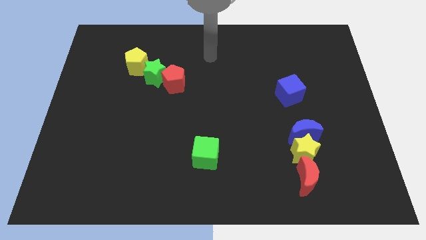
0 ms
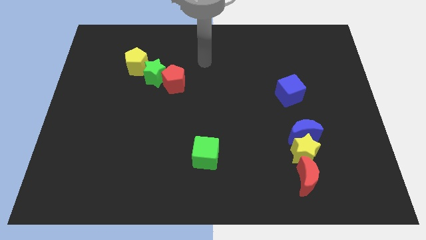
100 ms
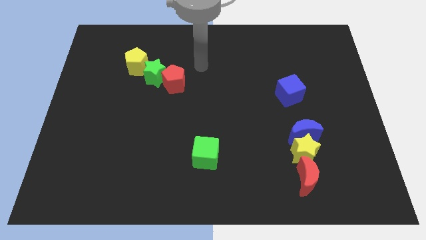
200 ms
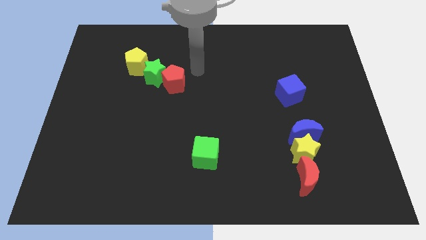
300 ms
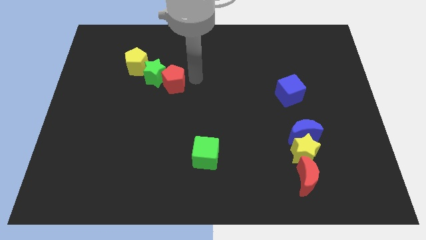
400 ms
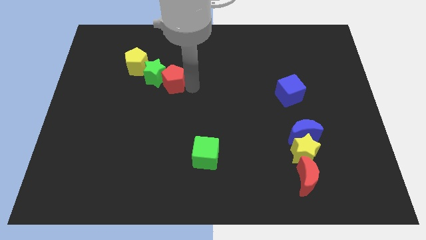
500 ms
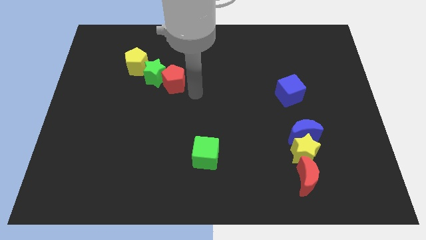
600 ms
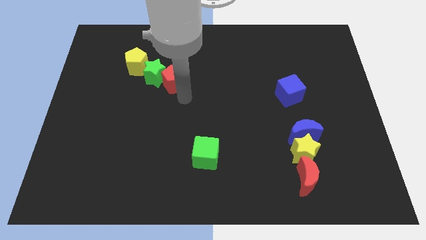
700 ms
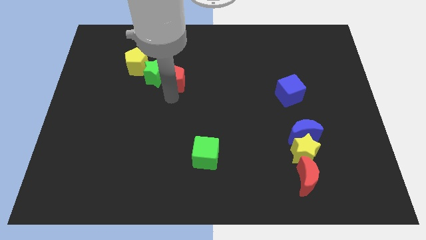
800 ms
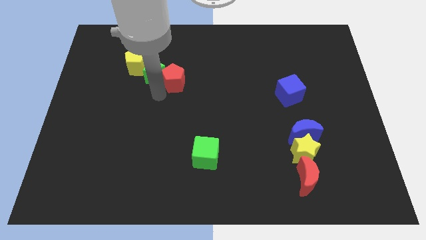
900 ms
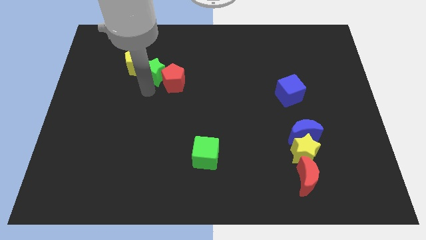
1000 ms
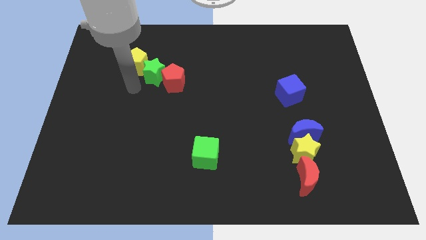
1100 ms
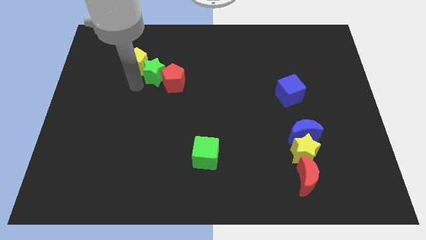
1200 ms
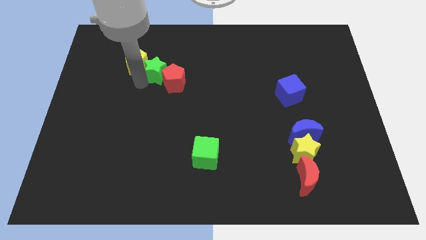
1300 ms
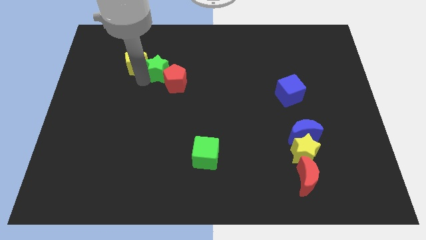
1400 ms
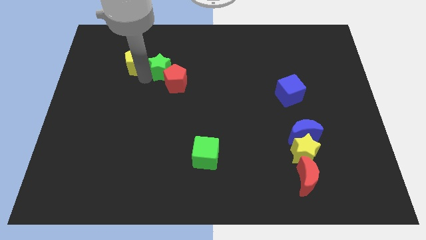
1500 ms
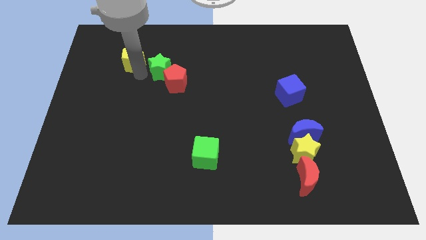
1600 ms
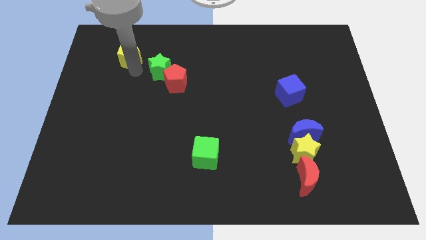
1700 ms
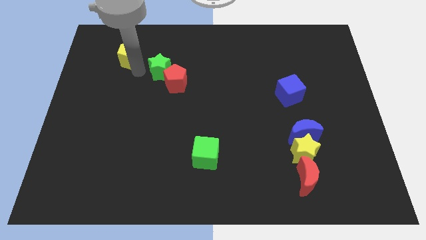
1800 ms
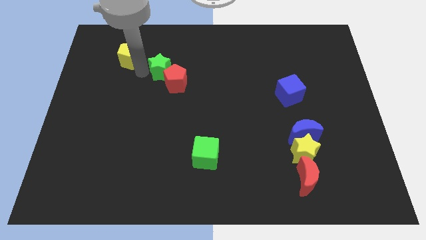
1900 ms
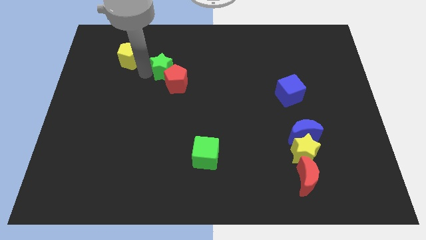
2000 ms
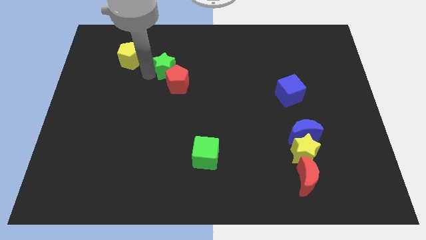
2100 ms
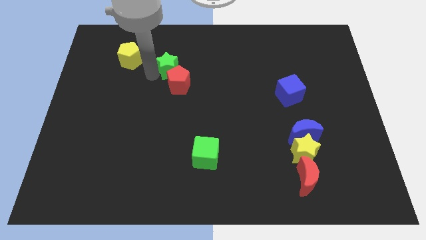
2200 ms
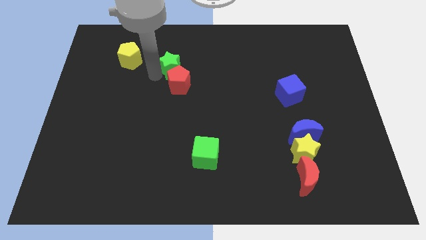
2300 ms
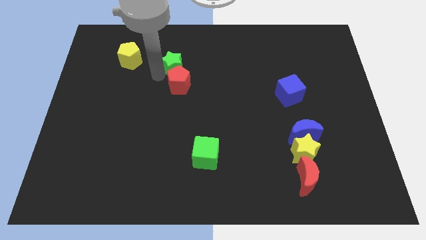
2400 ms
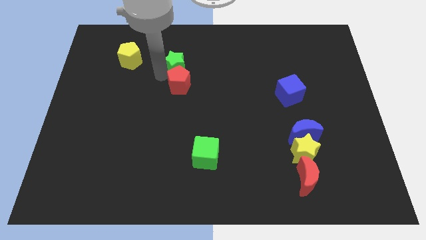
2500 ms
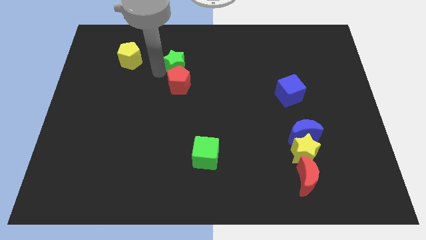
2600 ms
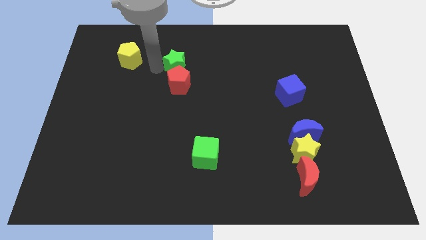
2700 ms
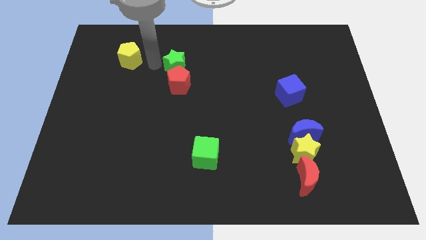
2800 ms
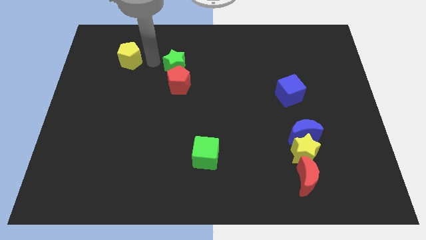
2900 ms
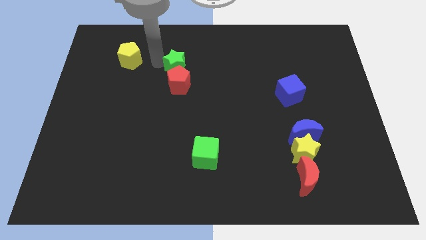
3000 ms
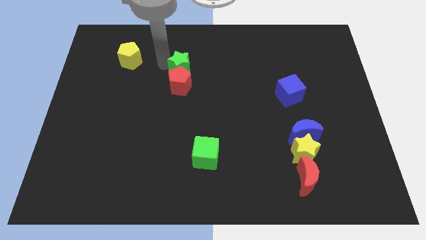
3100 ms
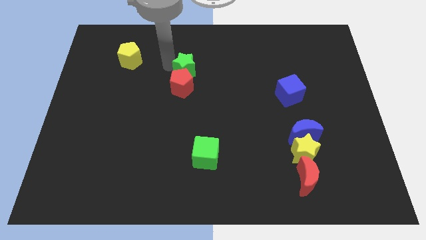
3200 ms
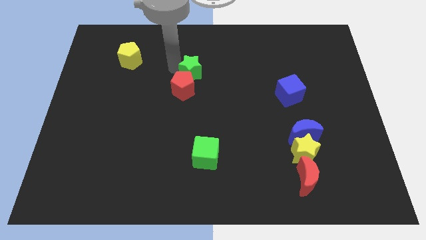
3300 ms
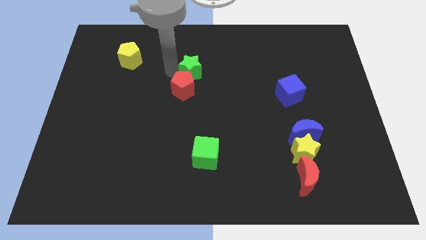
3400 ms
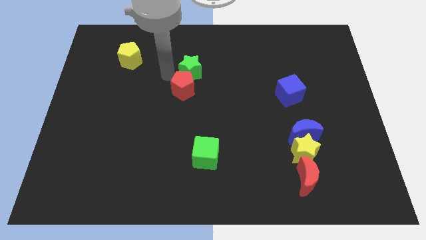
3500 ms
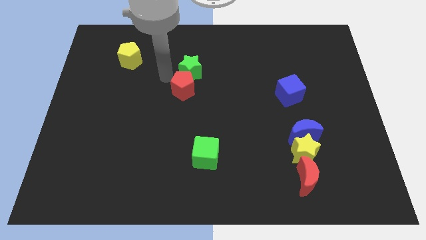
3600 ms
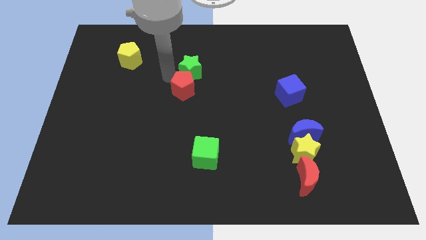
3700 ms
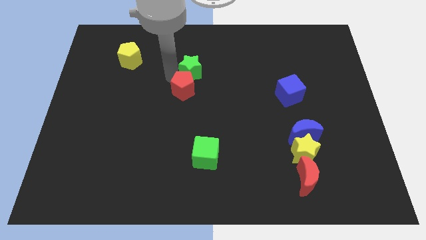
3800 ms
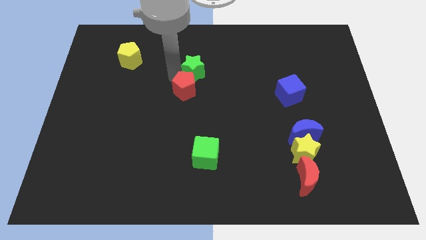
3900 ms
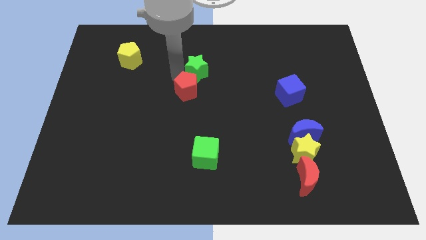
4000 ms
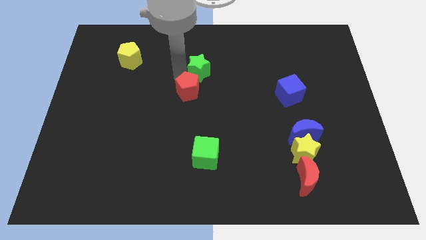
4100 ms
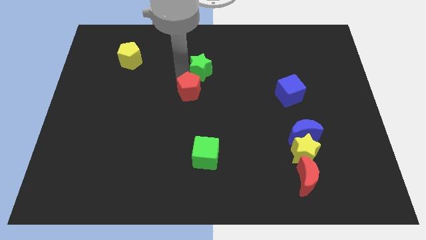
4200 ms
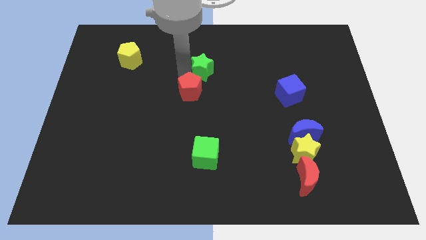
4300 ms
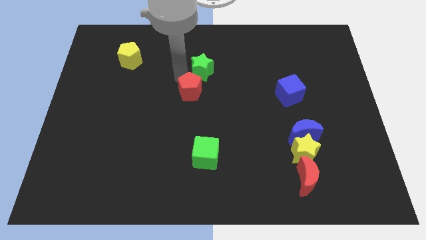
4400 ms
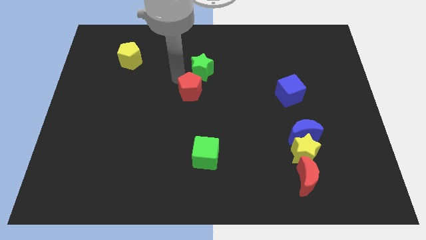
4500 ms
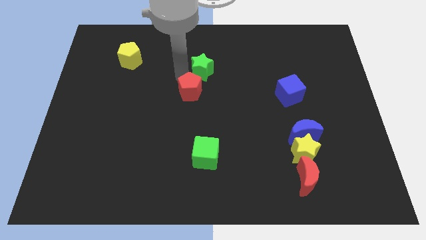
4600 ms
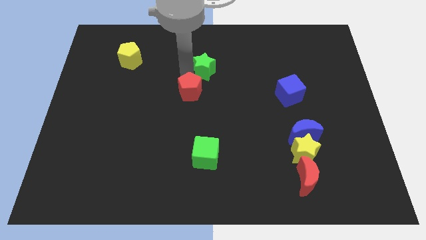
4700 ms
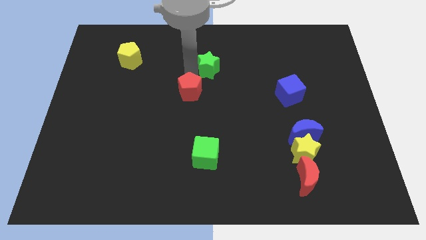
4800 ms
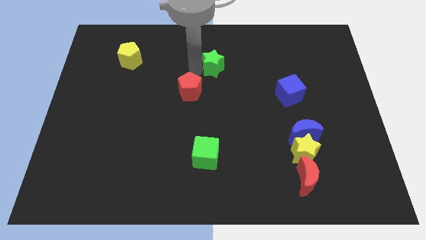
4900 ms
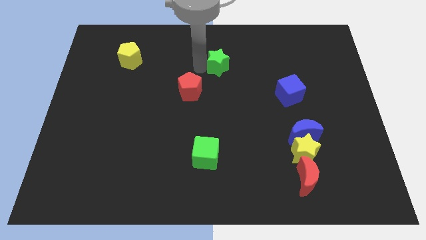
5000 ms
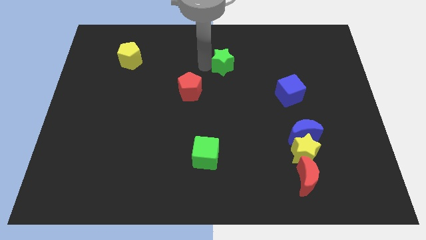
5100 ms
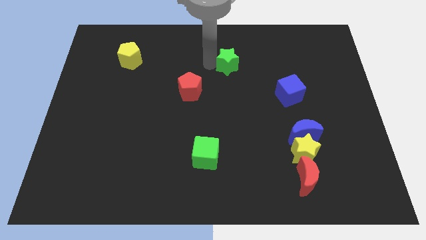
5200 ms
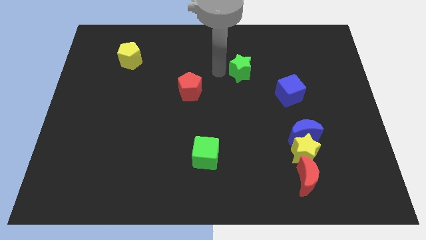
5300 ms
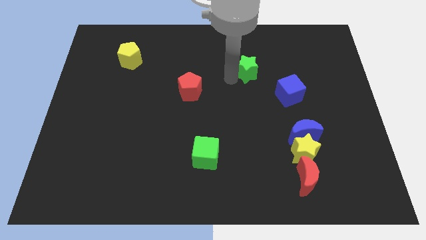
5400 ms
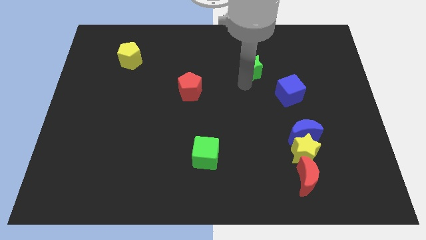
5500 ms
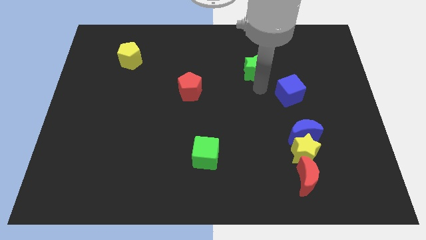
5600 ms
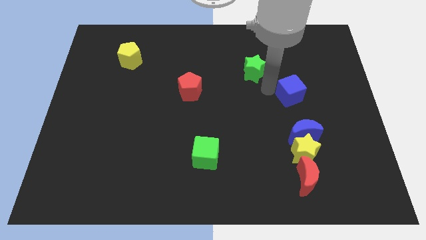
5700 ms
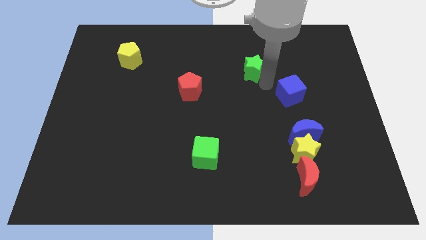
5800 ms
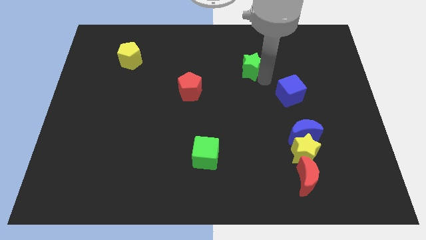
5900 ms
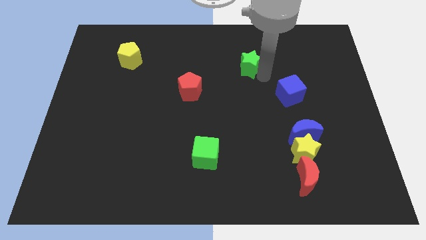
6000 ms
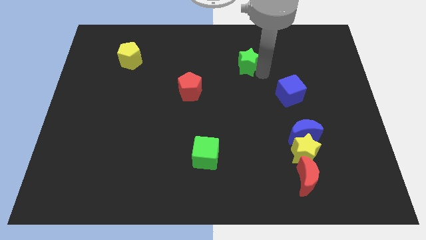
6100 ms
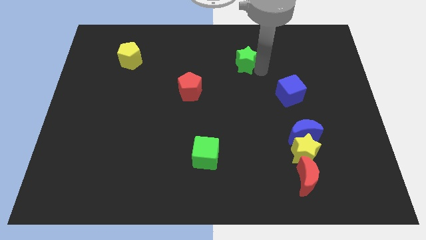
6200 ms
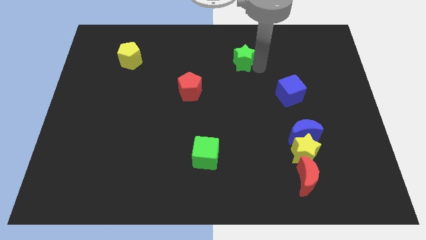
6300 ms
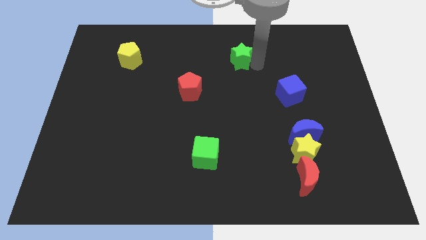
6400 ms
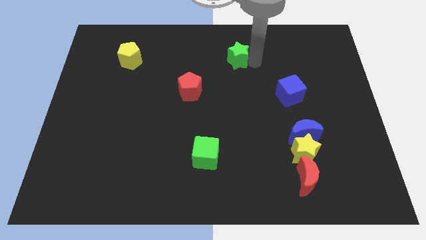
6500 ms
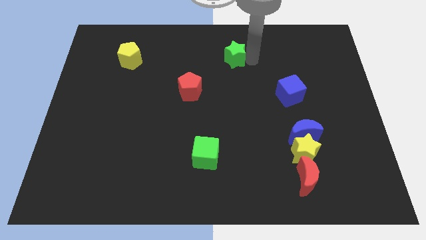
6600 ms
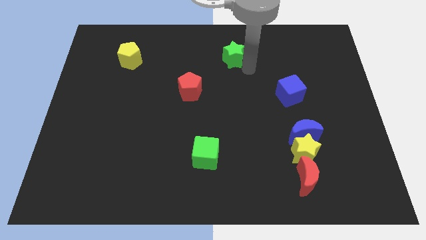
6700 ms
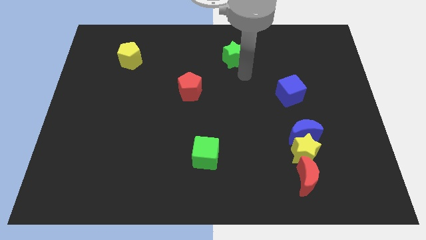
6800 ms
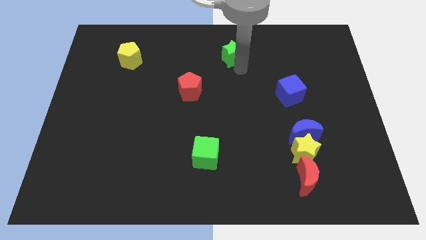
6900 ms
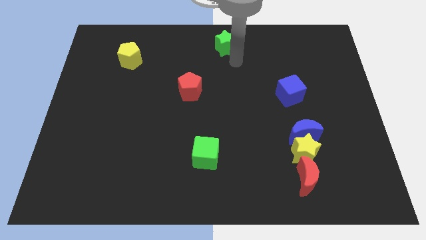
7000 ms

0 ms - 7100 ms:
slide the green star to the towards your base
